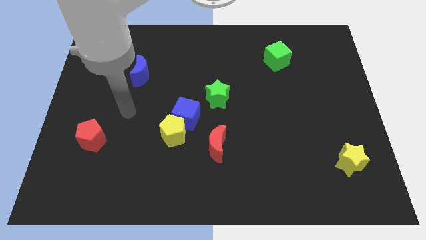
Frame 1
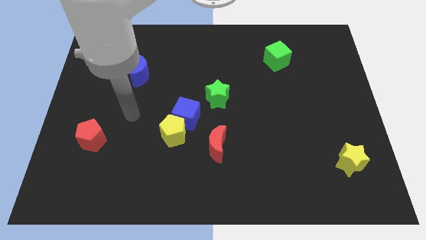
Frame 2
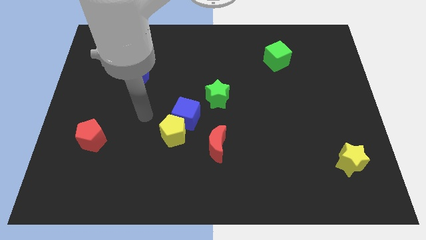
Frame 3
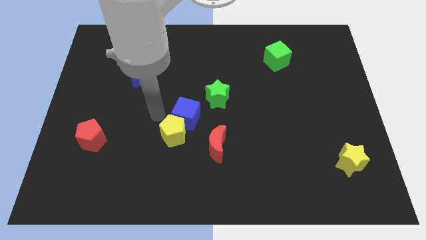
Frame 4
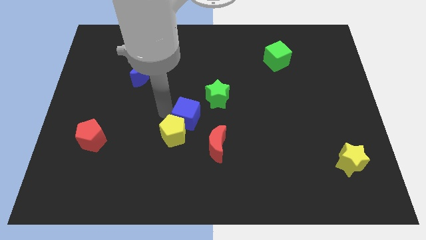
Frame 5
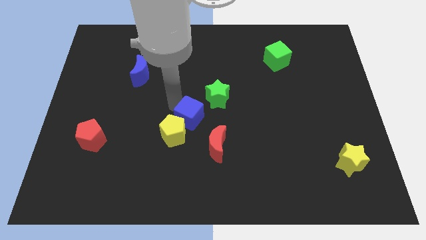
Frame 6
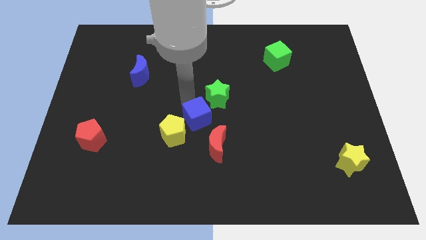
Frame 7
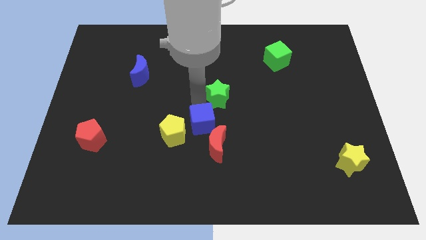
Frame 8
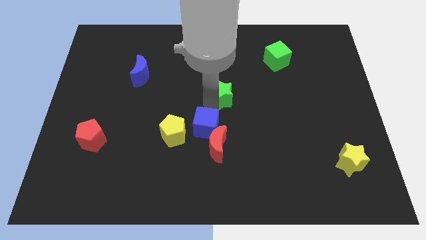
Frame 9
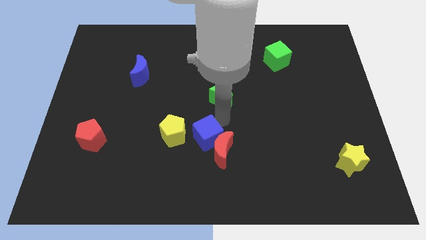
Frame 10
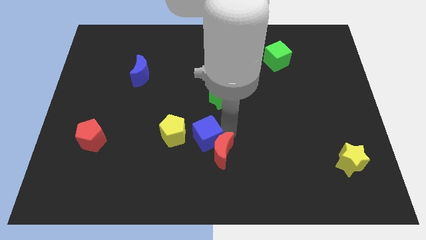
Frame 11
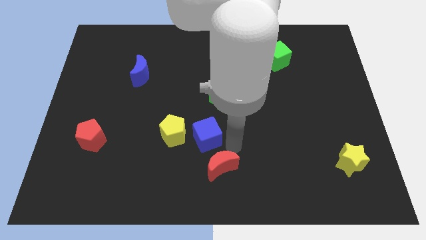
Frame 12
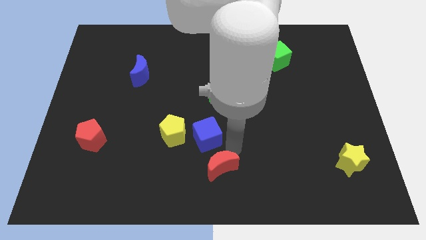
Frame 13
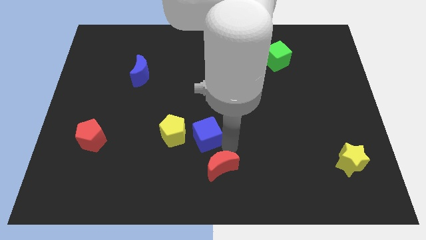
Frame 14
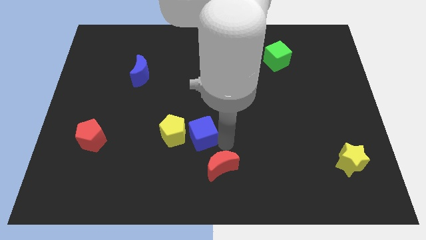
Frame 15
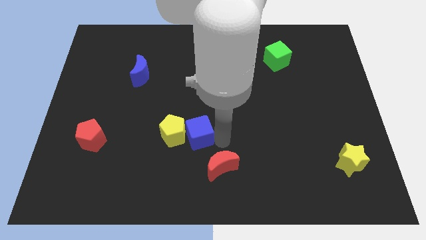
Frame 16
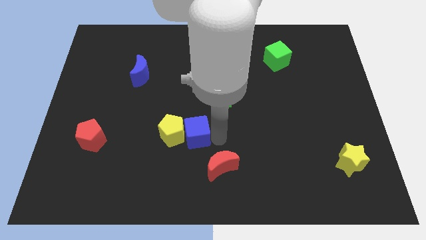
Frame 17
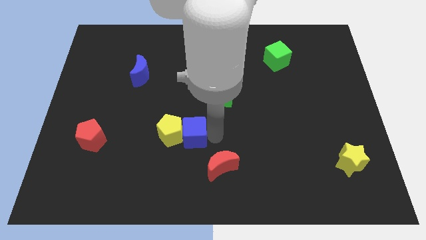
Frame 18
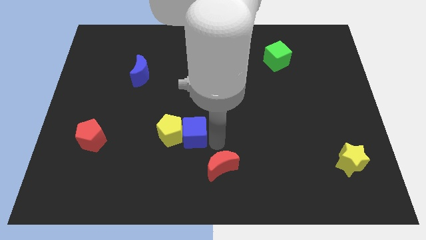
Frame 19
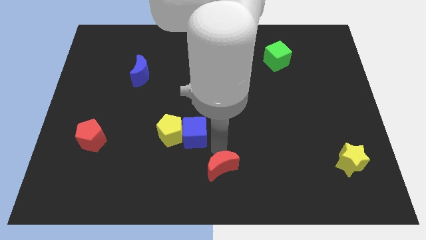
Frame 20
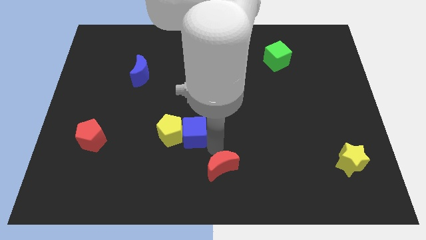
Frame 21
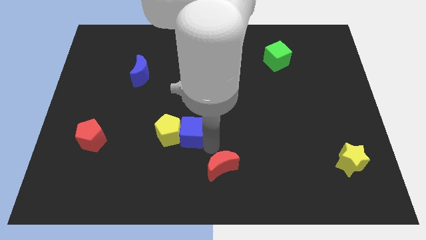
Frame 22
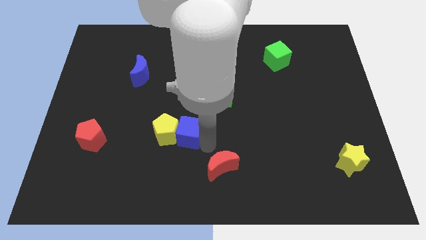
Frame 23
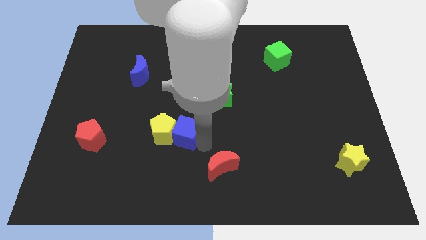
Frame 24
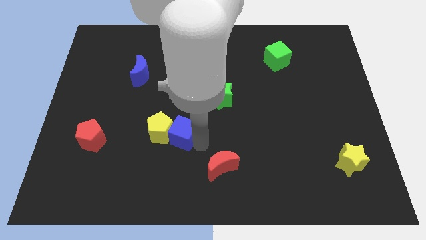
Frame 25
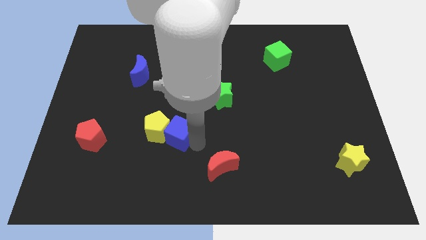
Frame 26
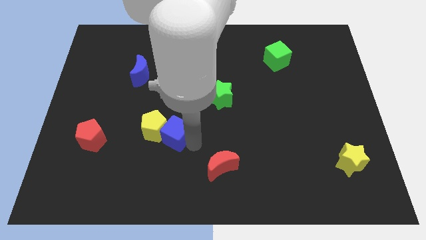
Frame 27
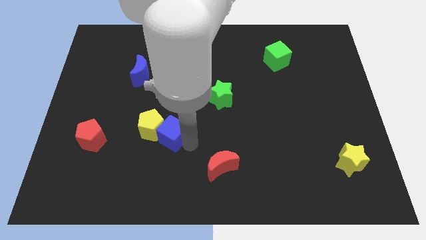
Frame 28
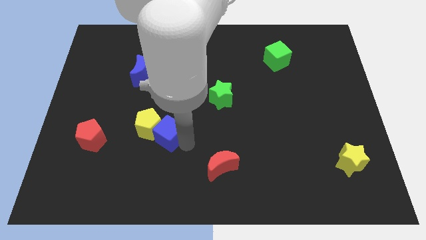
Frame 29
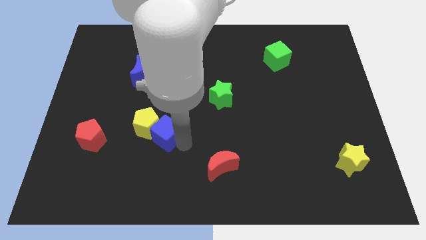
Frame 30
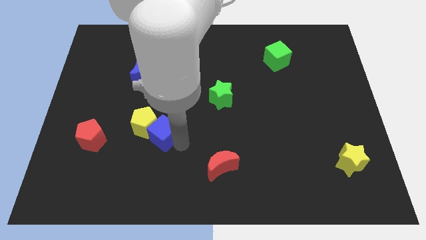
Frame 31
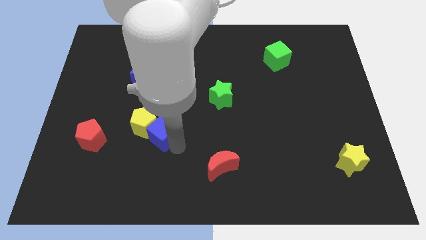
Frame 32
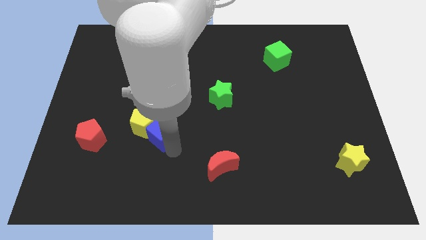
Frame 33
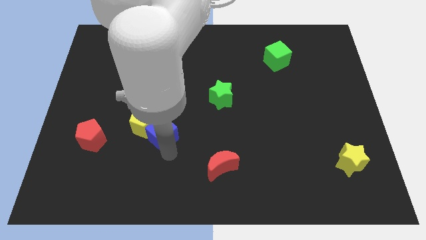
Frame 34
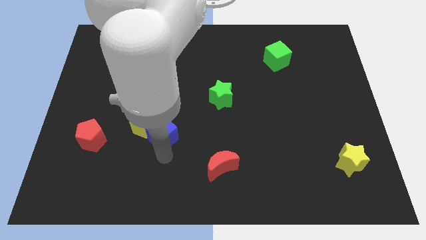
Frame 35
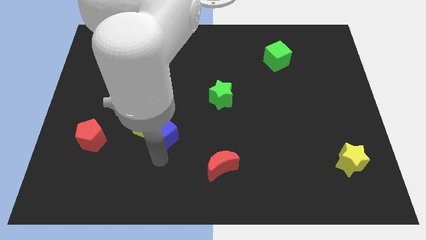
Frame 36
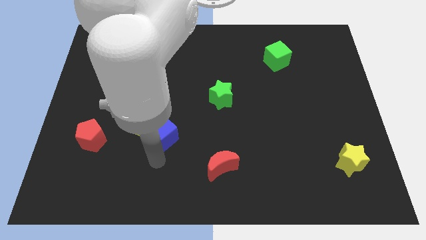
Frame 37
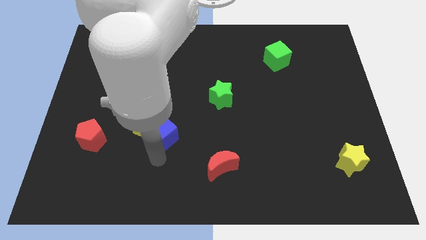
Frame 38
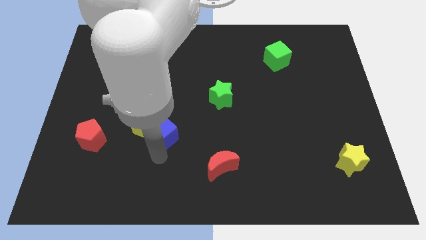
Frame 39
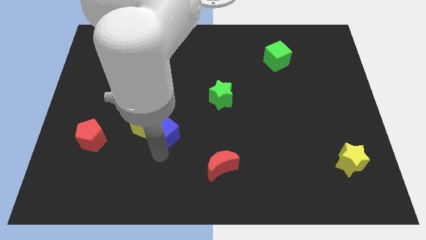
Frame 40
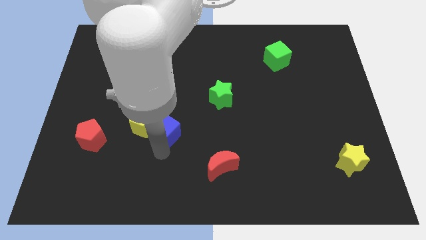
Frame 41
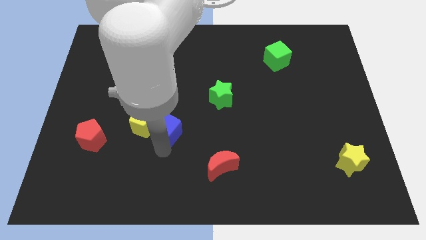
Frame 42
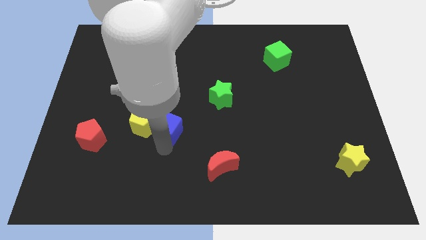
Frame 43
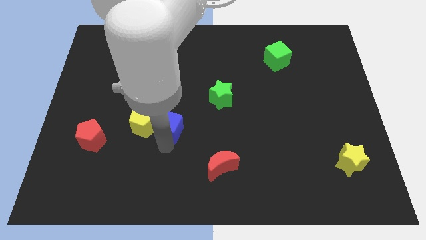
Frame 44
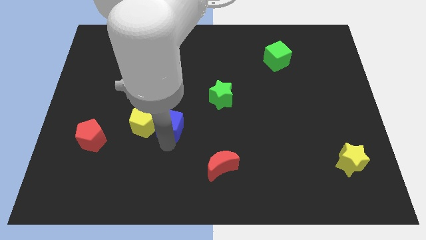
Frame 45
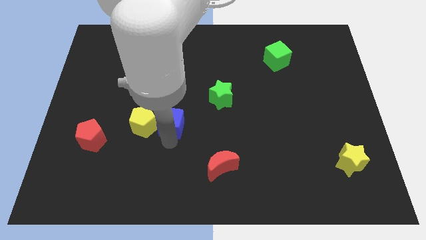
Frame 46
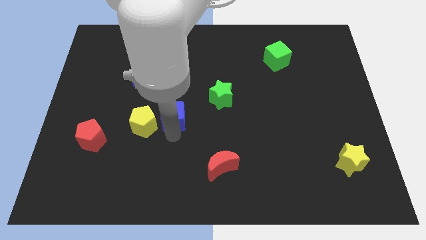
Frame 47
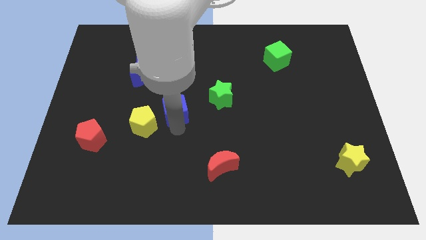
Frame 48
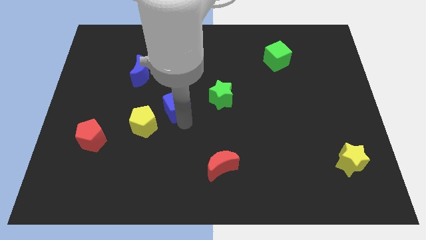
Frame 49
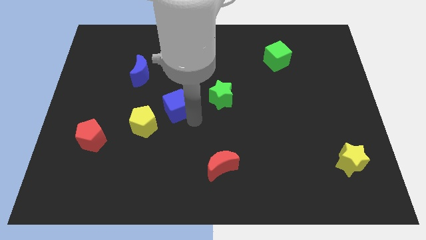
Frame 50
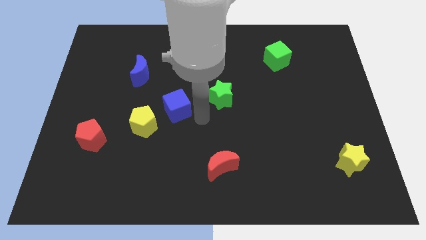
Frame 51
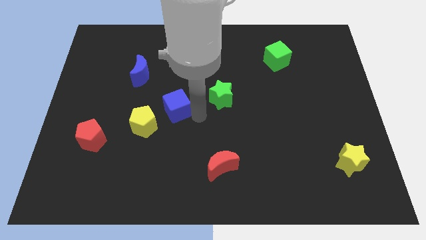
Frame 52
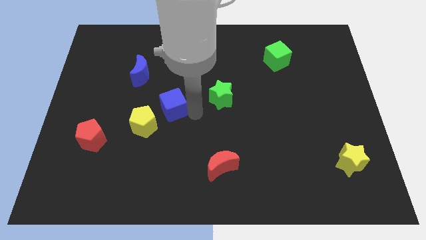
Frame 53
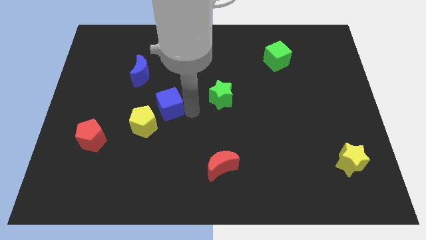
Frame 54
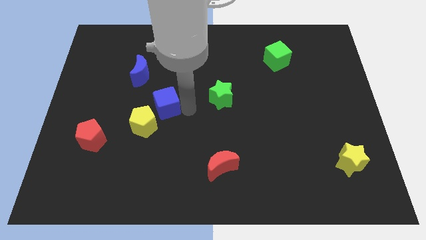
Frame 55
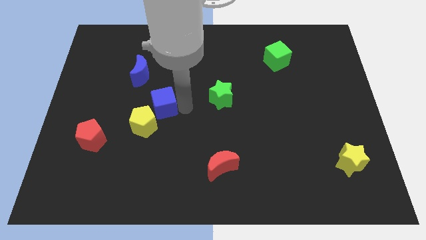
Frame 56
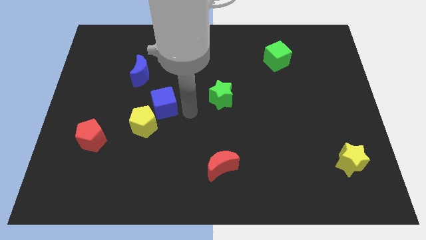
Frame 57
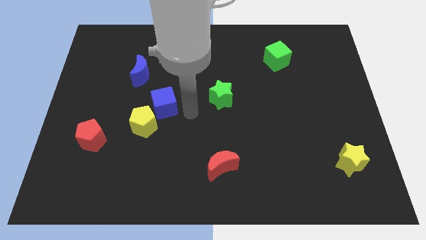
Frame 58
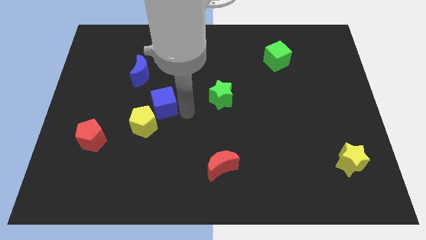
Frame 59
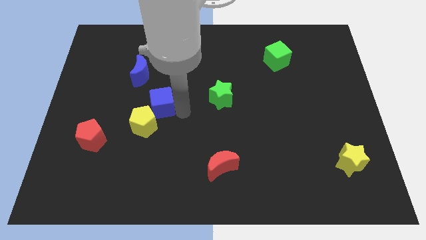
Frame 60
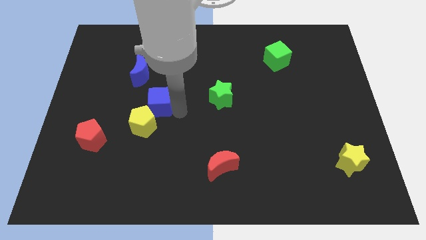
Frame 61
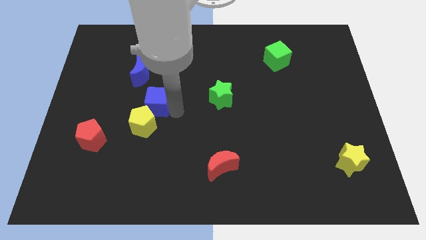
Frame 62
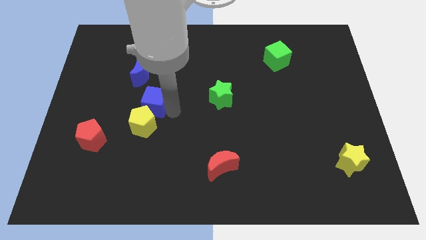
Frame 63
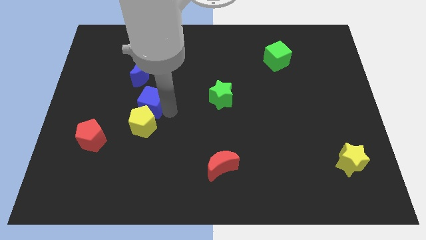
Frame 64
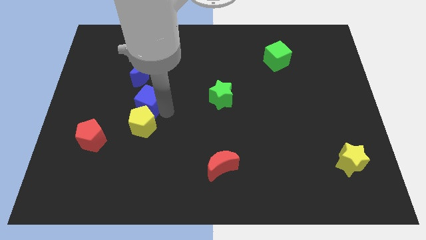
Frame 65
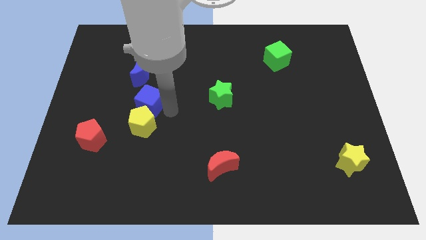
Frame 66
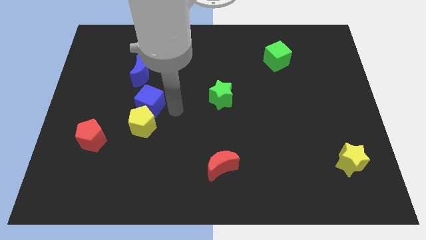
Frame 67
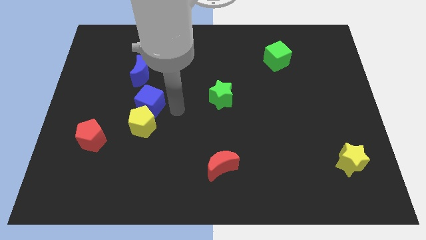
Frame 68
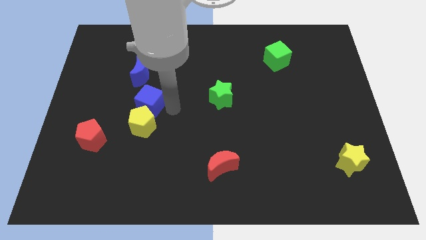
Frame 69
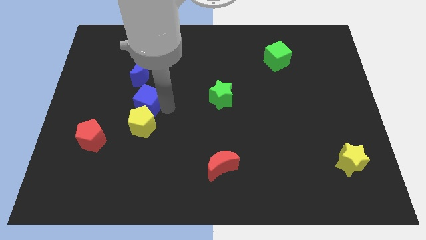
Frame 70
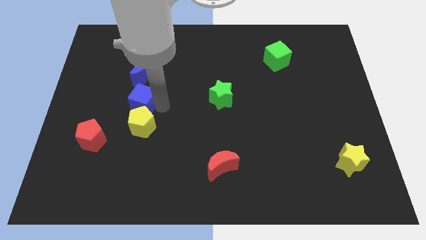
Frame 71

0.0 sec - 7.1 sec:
move the blue cube away from the yellow pentagon and green star

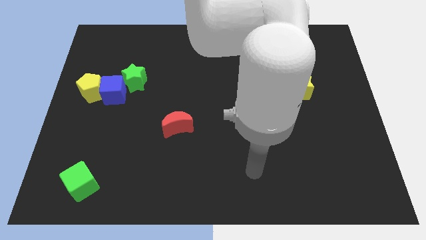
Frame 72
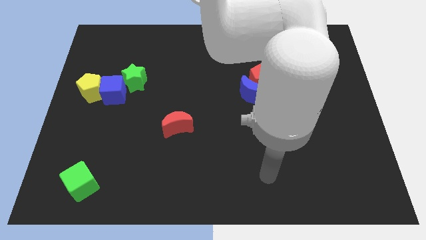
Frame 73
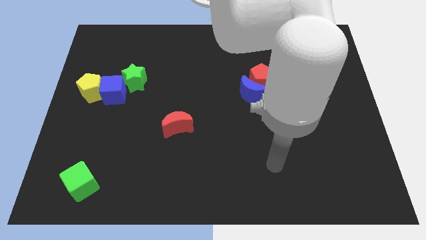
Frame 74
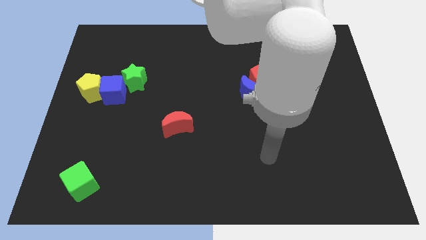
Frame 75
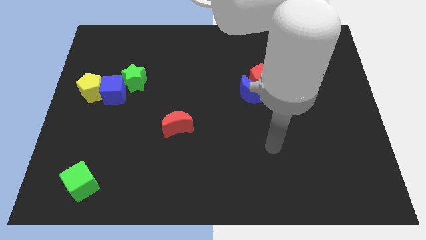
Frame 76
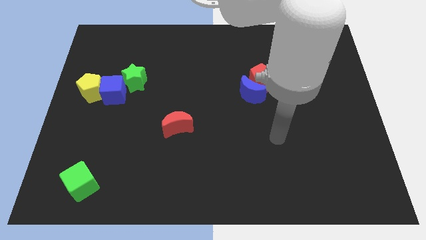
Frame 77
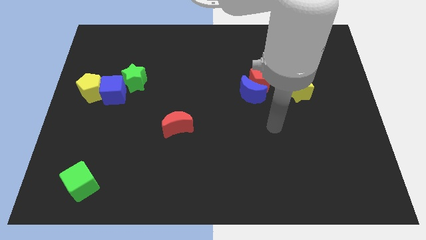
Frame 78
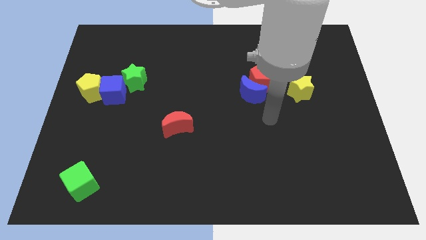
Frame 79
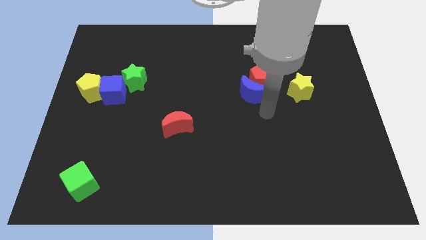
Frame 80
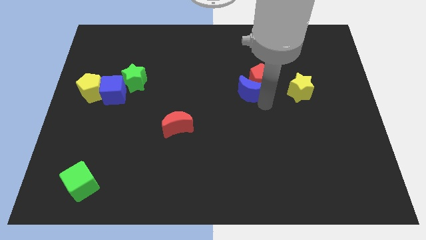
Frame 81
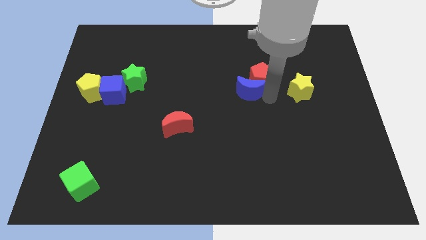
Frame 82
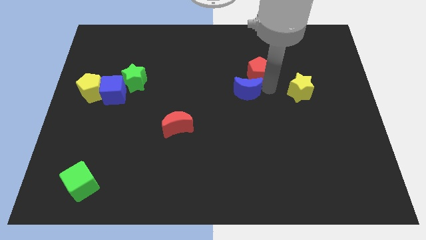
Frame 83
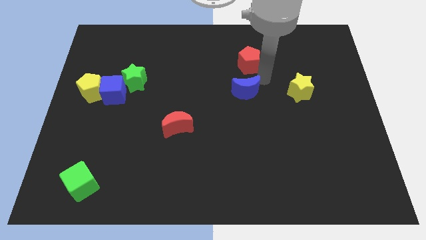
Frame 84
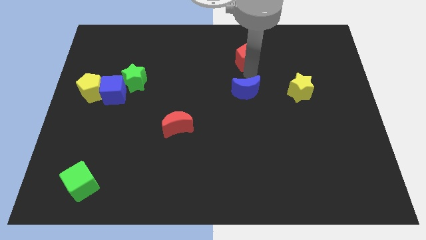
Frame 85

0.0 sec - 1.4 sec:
pull the blue moon apart from the red pentagon

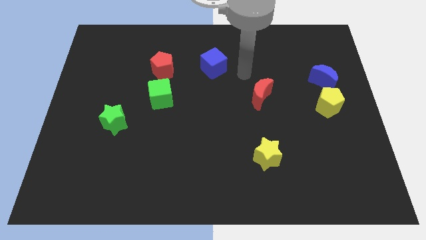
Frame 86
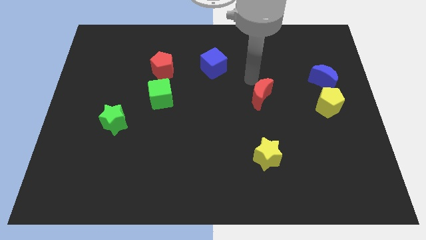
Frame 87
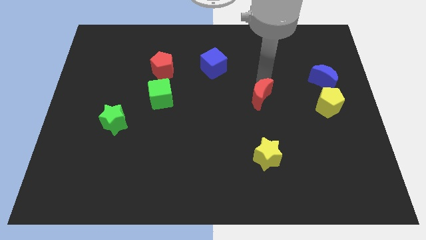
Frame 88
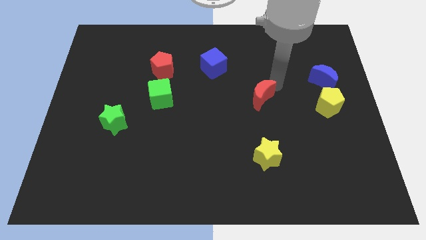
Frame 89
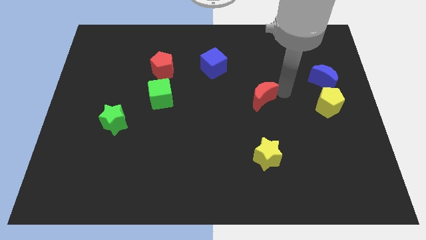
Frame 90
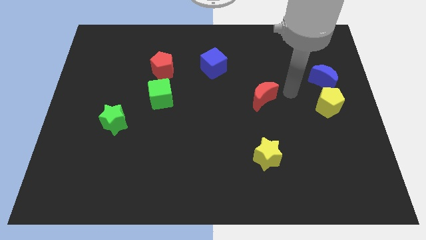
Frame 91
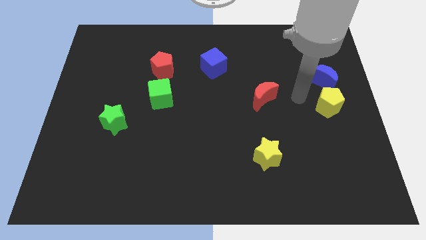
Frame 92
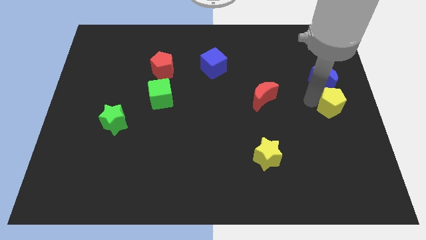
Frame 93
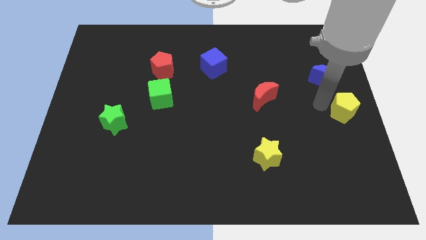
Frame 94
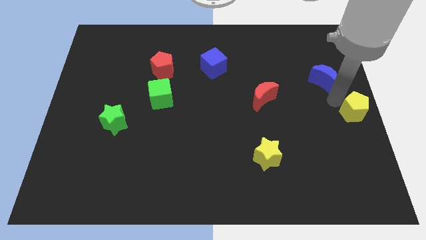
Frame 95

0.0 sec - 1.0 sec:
separate the blue moon from the yellow pentagon
